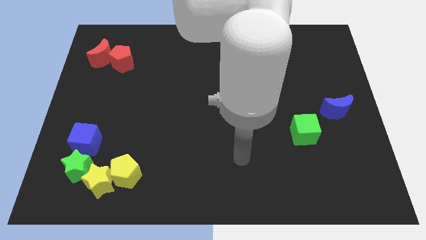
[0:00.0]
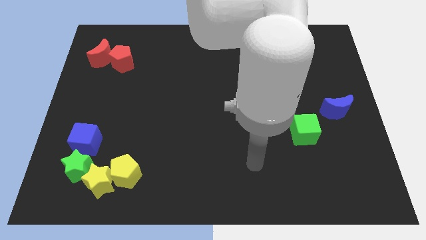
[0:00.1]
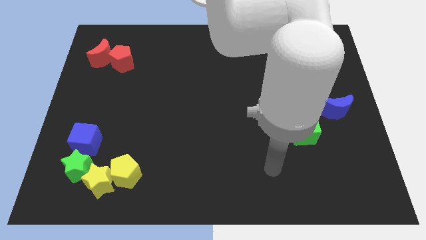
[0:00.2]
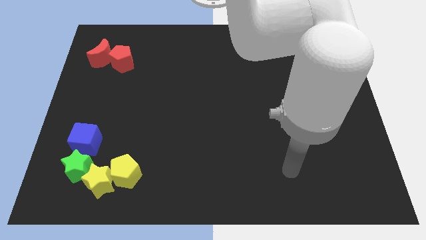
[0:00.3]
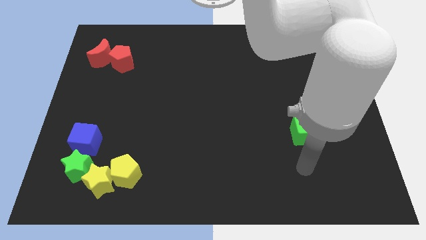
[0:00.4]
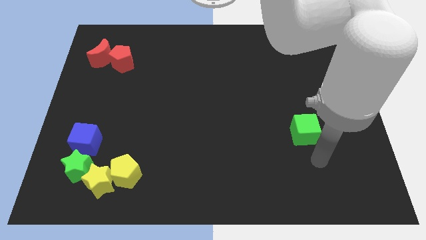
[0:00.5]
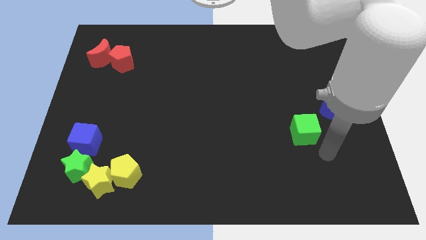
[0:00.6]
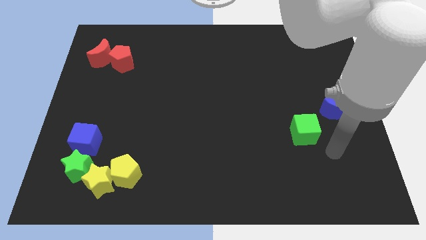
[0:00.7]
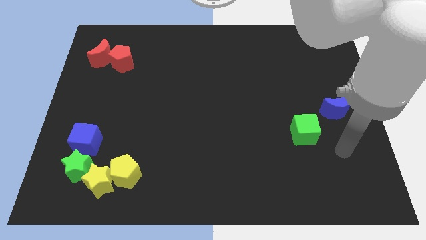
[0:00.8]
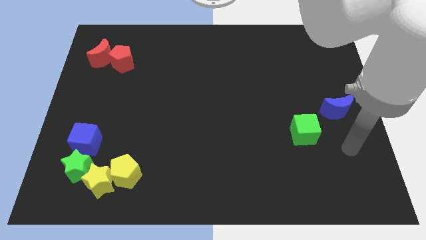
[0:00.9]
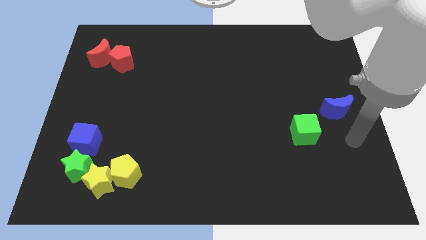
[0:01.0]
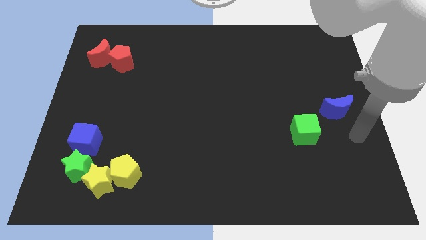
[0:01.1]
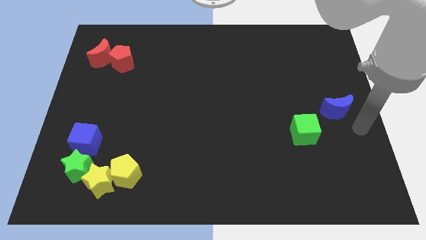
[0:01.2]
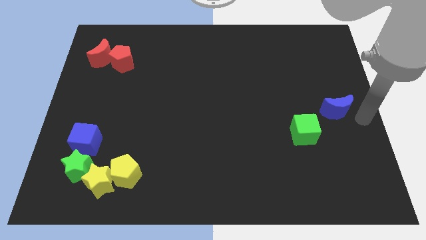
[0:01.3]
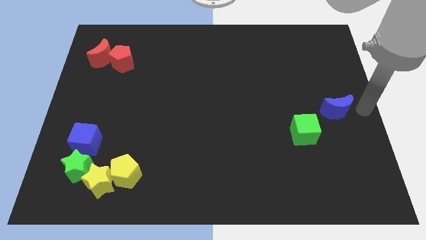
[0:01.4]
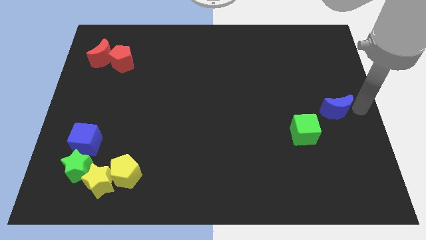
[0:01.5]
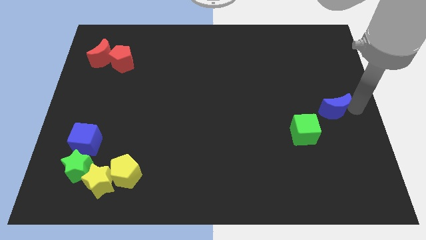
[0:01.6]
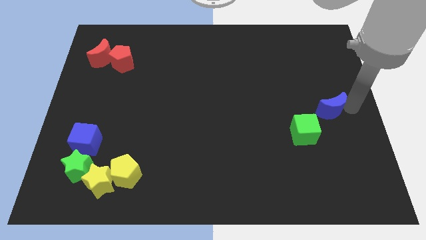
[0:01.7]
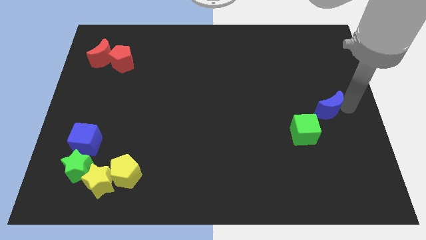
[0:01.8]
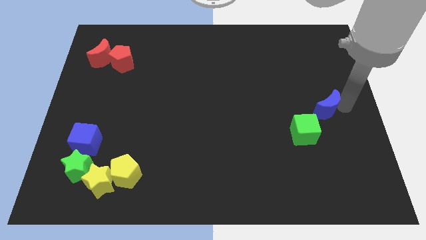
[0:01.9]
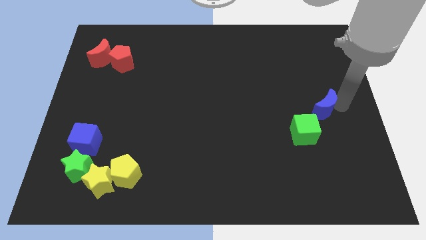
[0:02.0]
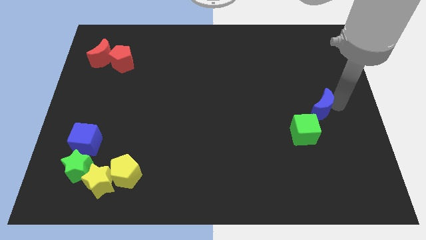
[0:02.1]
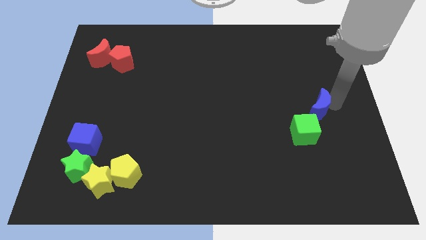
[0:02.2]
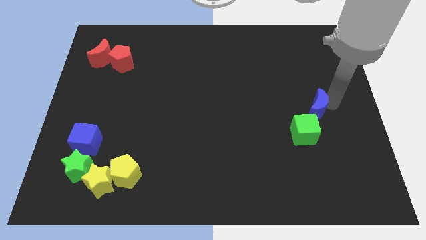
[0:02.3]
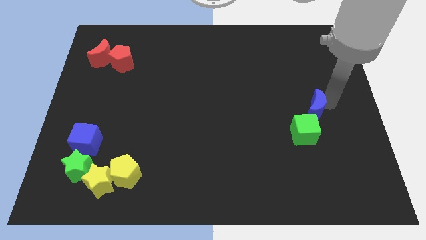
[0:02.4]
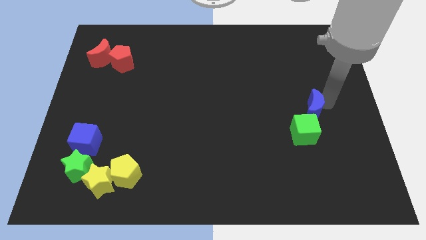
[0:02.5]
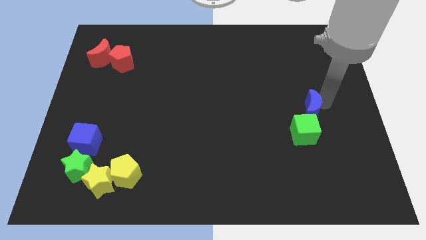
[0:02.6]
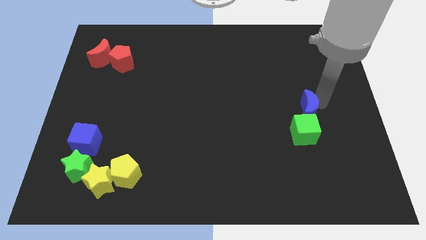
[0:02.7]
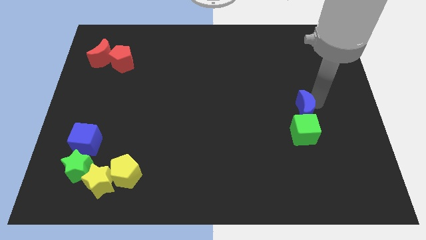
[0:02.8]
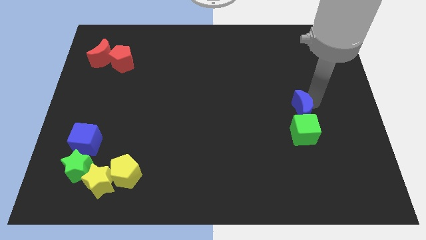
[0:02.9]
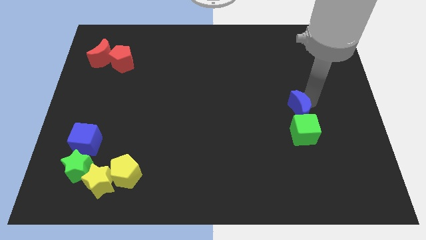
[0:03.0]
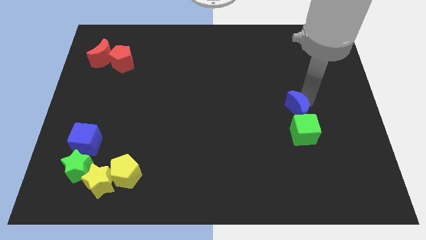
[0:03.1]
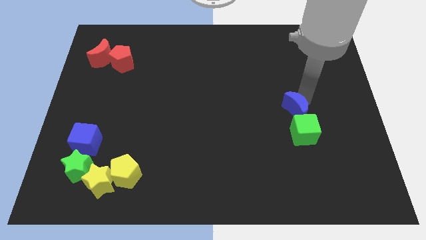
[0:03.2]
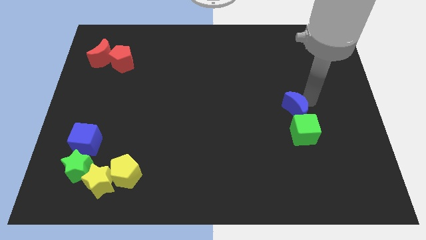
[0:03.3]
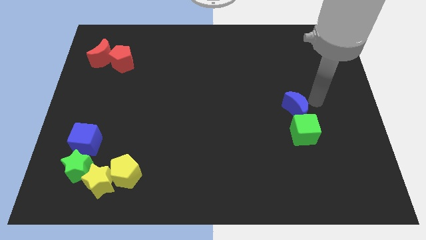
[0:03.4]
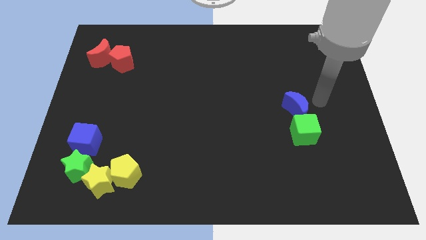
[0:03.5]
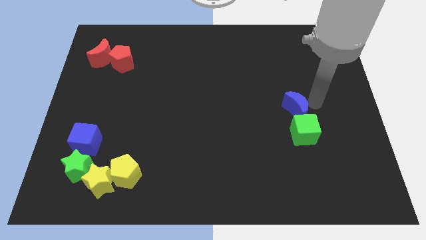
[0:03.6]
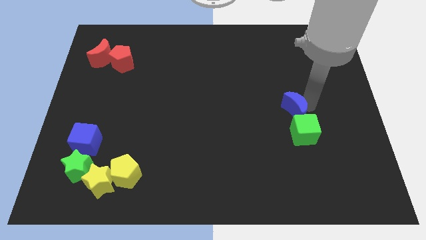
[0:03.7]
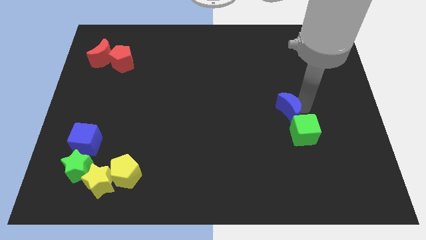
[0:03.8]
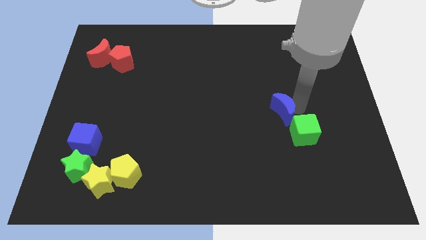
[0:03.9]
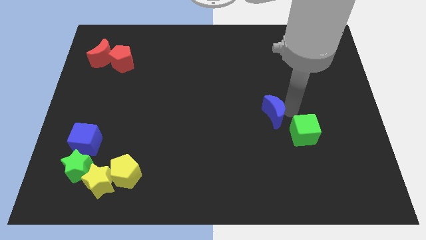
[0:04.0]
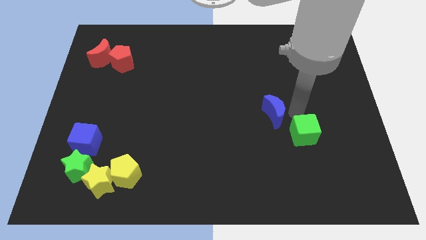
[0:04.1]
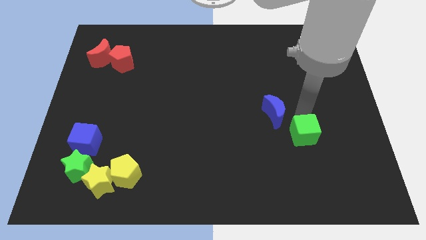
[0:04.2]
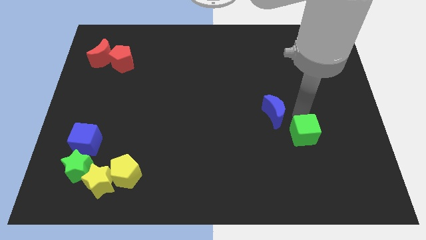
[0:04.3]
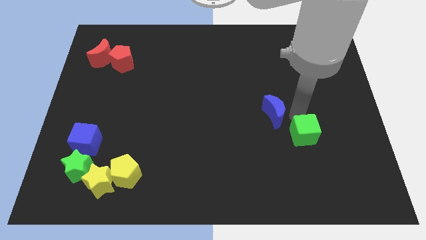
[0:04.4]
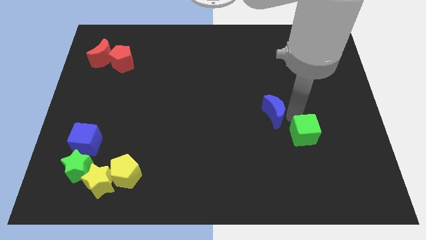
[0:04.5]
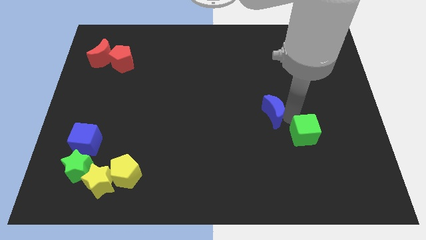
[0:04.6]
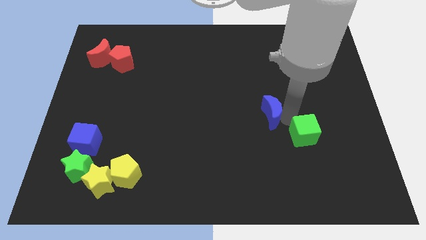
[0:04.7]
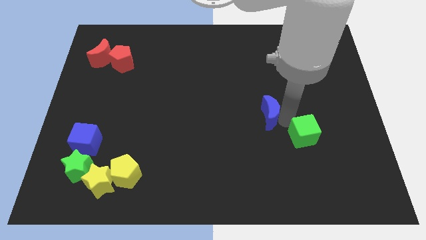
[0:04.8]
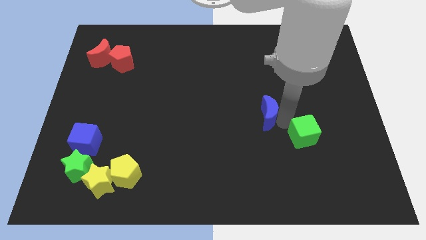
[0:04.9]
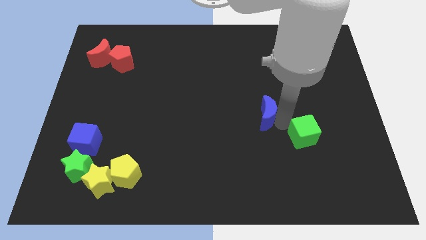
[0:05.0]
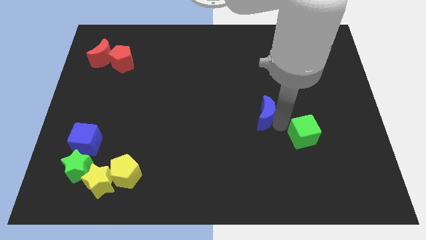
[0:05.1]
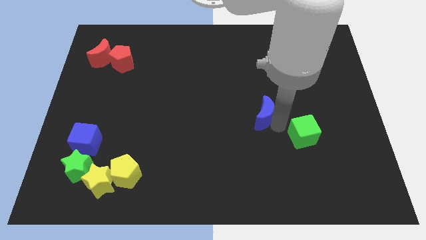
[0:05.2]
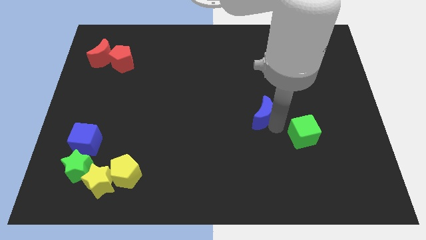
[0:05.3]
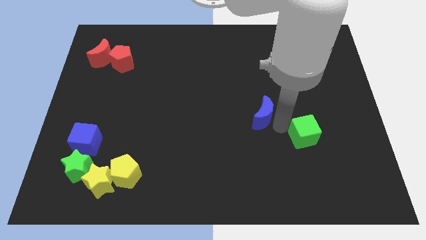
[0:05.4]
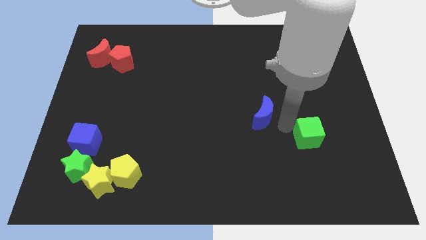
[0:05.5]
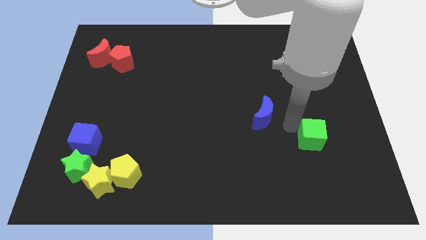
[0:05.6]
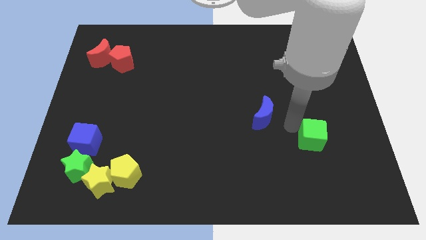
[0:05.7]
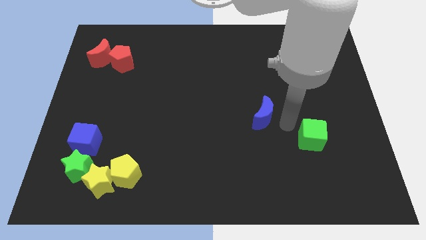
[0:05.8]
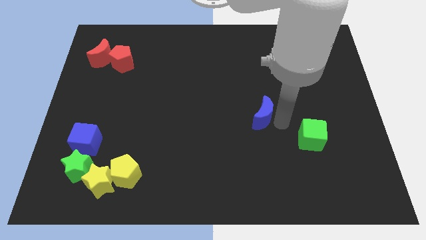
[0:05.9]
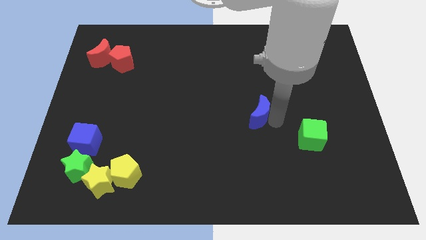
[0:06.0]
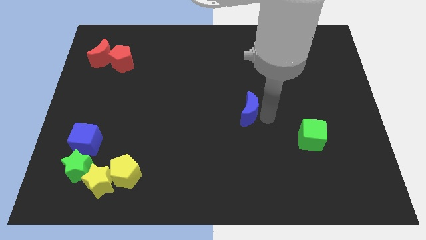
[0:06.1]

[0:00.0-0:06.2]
push the blue moon left

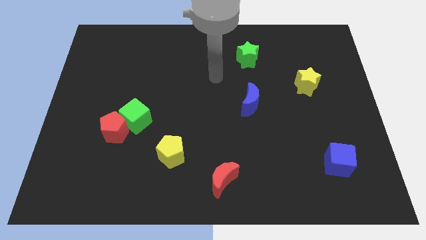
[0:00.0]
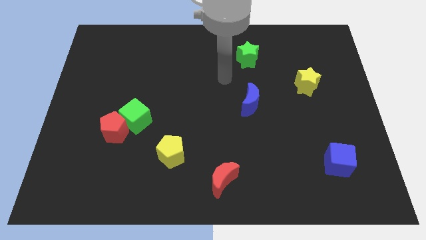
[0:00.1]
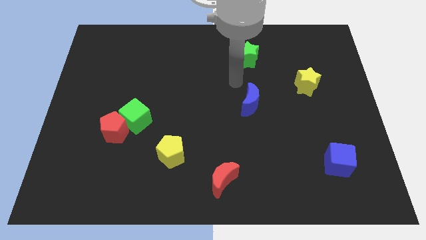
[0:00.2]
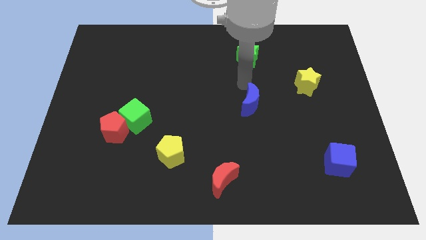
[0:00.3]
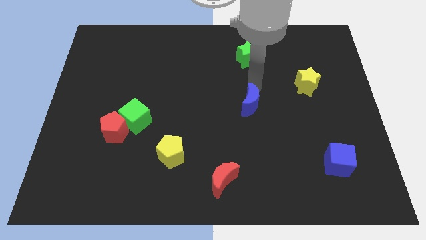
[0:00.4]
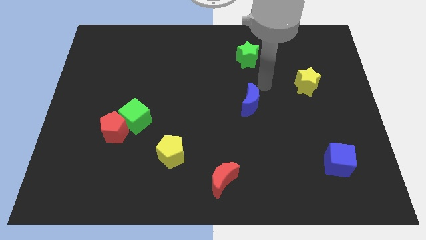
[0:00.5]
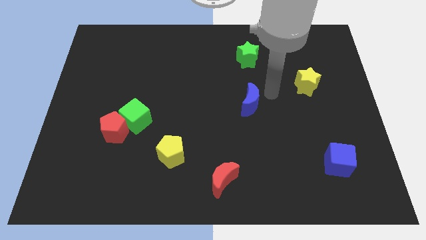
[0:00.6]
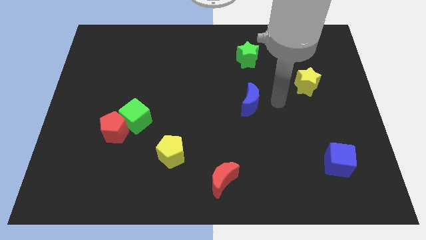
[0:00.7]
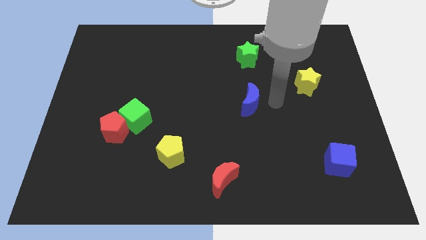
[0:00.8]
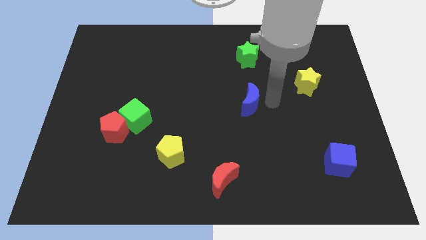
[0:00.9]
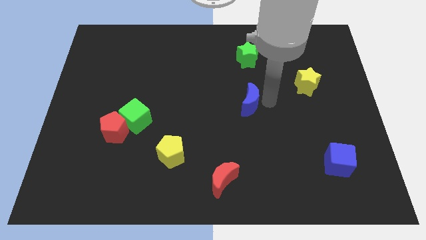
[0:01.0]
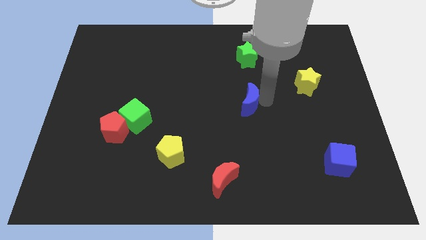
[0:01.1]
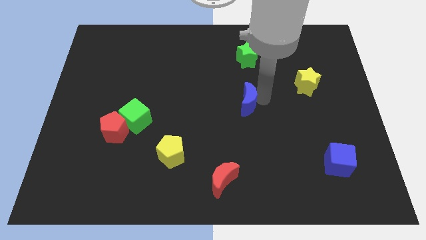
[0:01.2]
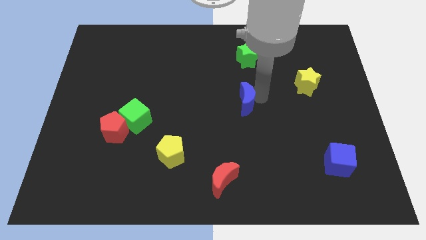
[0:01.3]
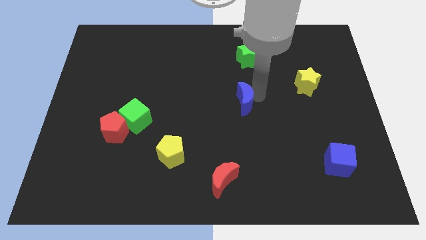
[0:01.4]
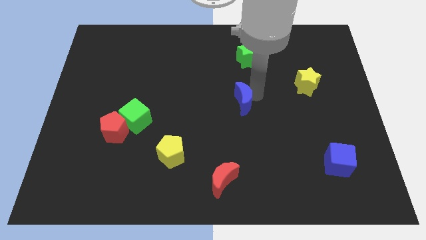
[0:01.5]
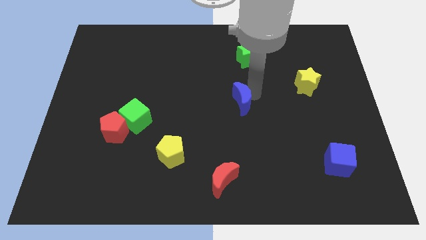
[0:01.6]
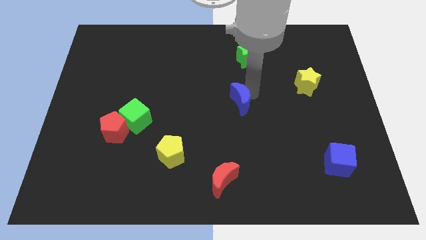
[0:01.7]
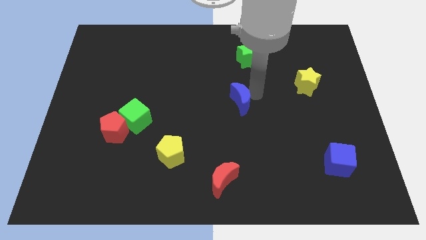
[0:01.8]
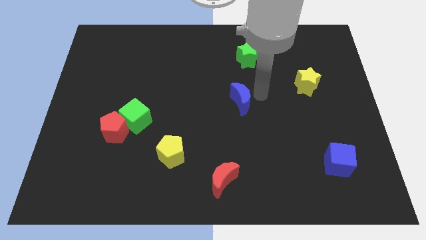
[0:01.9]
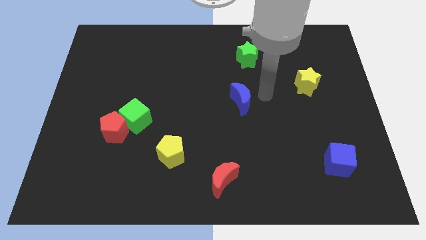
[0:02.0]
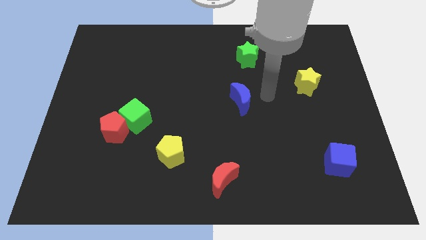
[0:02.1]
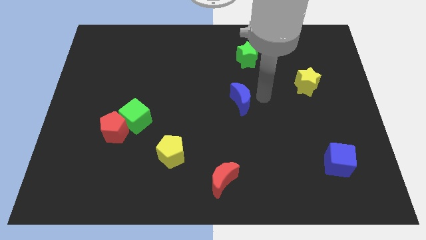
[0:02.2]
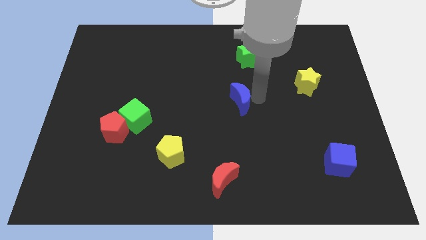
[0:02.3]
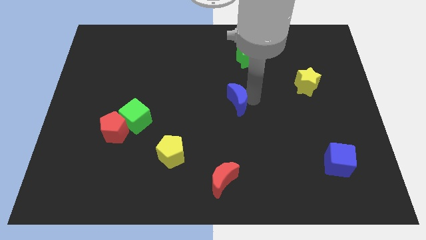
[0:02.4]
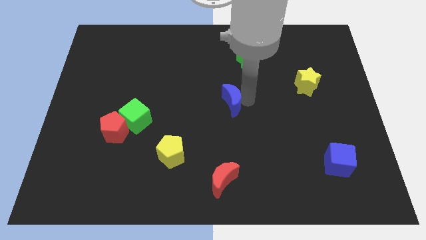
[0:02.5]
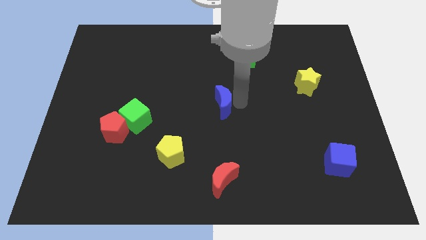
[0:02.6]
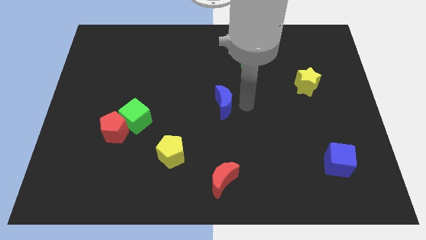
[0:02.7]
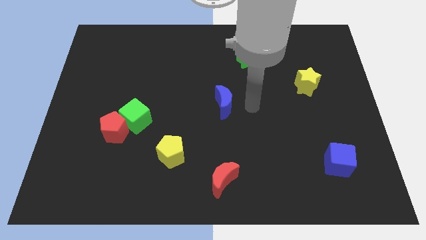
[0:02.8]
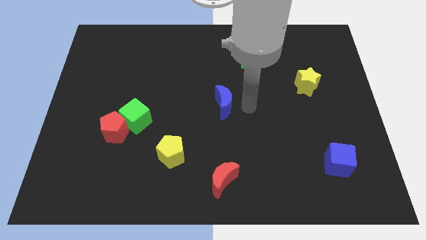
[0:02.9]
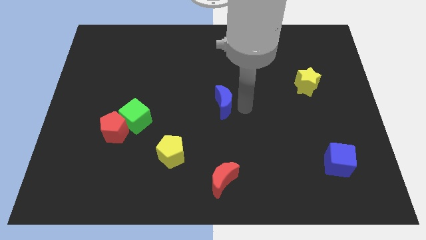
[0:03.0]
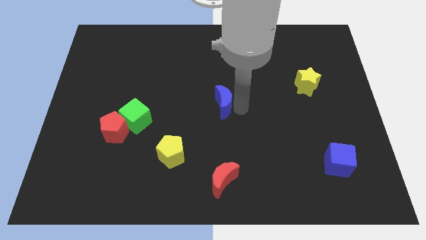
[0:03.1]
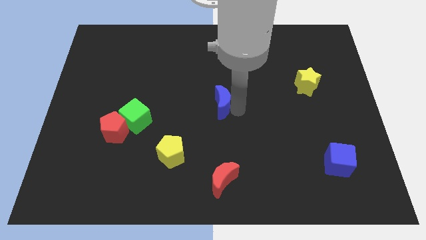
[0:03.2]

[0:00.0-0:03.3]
slightly slide the blue moon to the left
